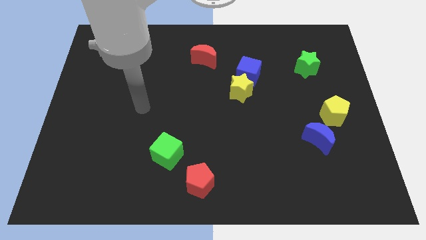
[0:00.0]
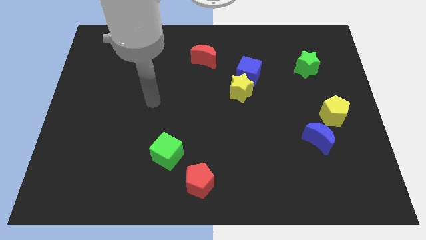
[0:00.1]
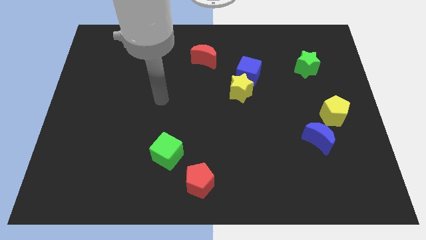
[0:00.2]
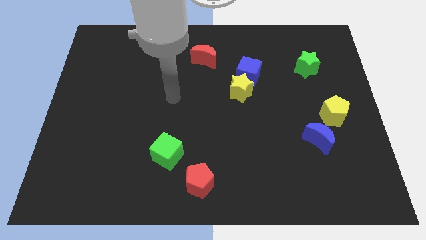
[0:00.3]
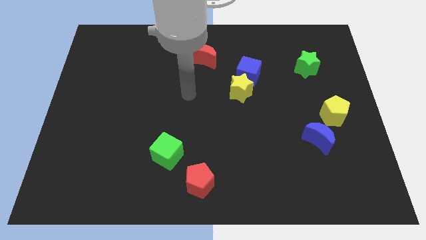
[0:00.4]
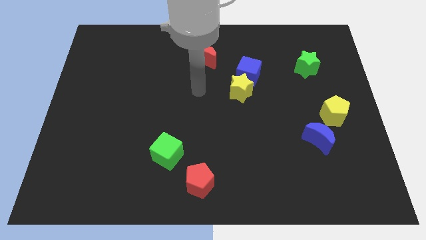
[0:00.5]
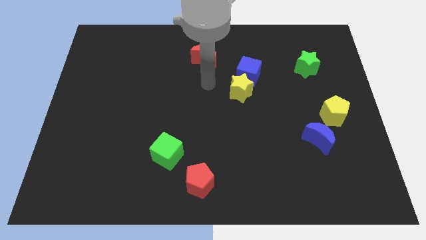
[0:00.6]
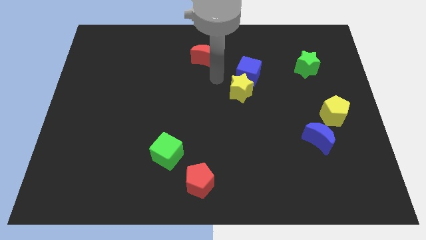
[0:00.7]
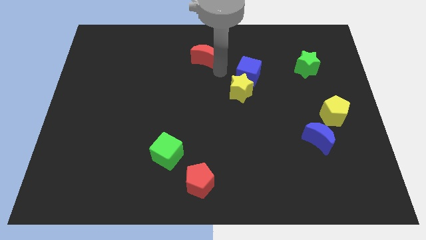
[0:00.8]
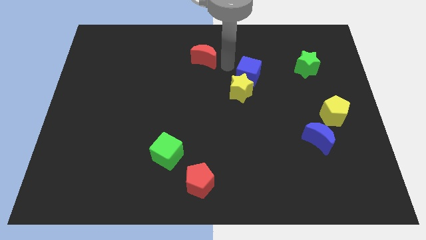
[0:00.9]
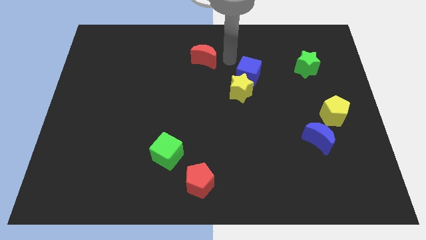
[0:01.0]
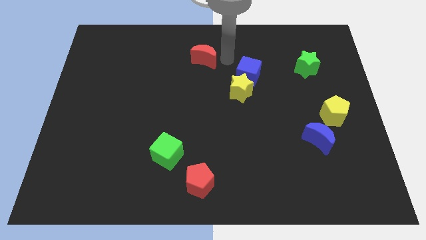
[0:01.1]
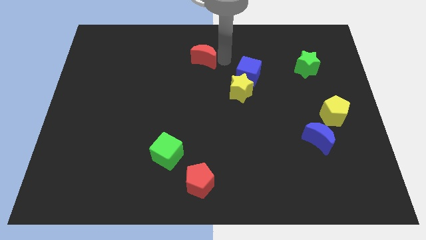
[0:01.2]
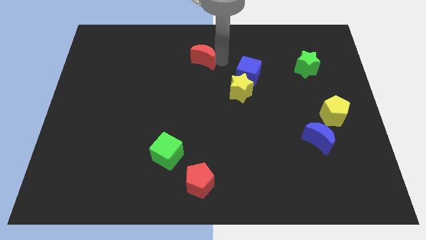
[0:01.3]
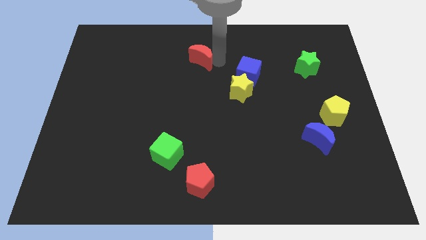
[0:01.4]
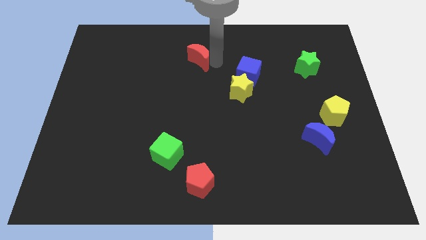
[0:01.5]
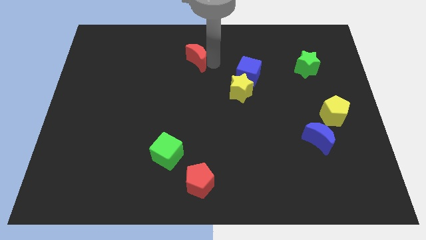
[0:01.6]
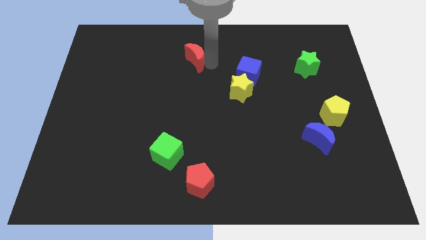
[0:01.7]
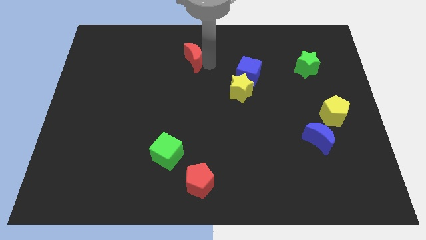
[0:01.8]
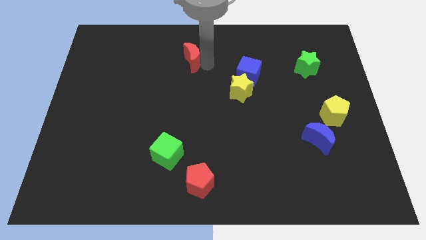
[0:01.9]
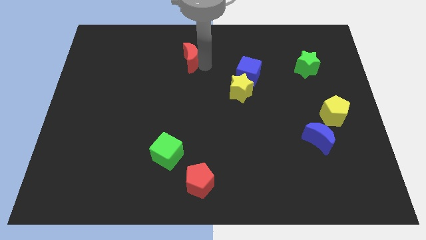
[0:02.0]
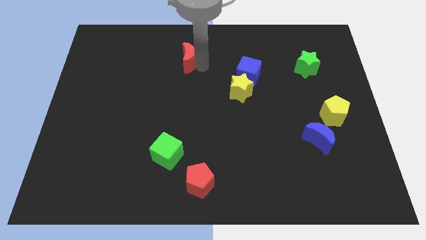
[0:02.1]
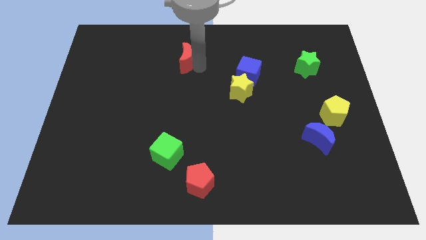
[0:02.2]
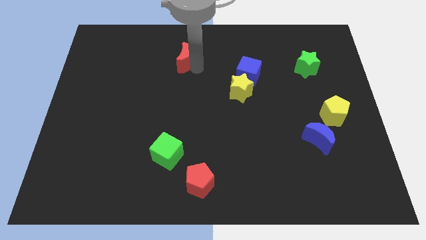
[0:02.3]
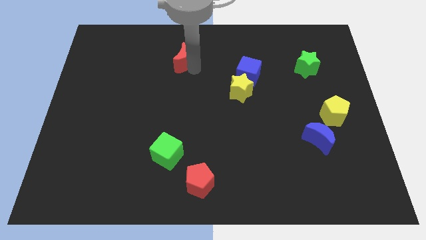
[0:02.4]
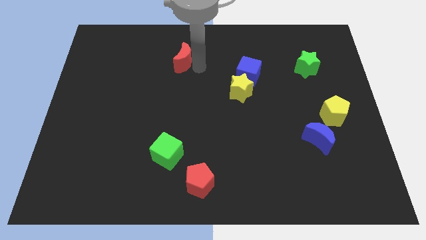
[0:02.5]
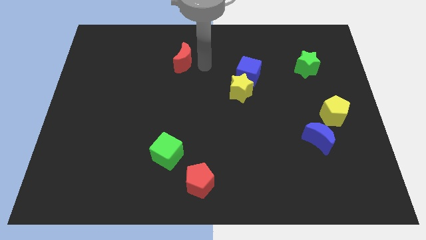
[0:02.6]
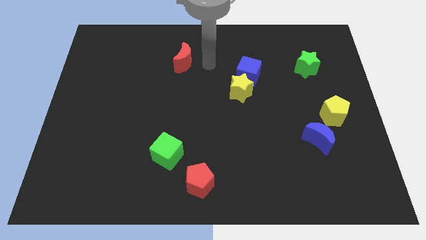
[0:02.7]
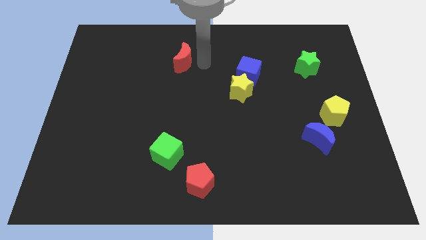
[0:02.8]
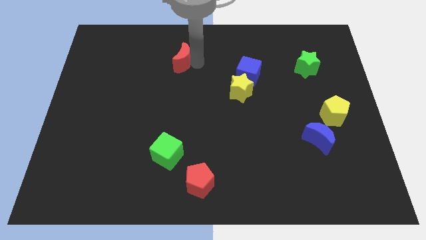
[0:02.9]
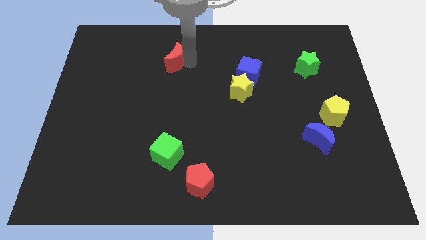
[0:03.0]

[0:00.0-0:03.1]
slightly slide the red moon left

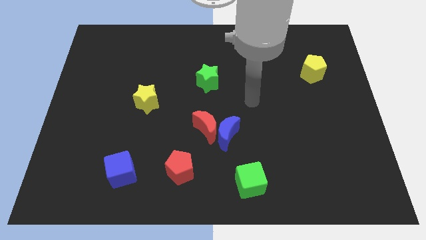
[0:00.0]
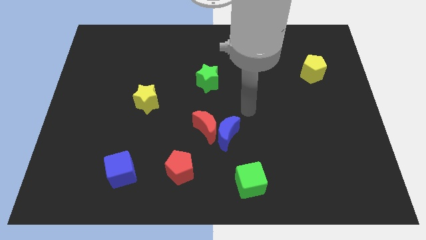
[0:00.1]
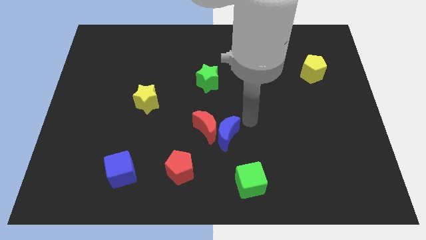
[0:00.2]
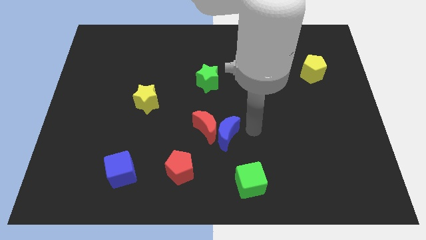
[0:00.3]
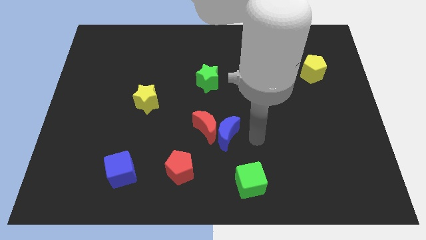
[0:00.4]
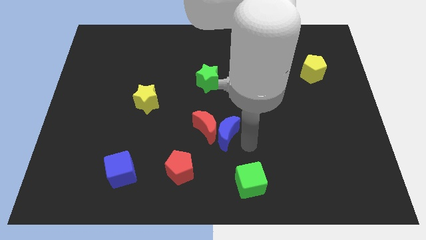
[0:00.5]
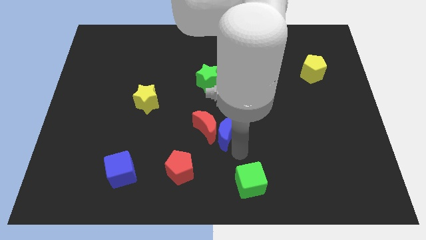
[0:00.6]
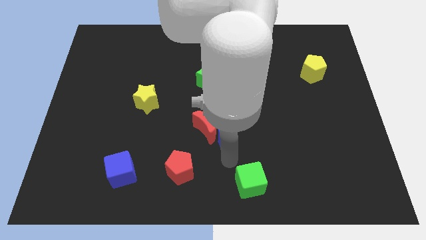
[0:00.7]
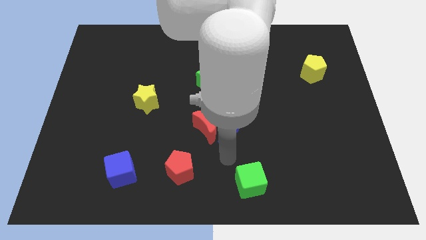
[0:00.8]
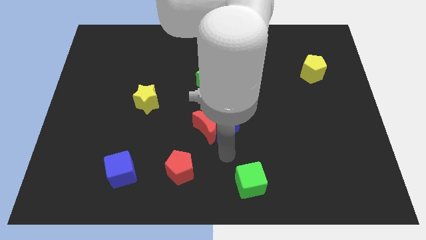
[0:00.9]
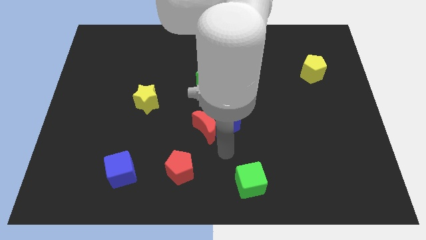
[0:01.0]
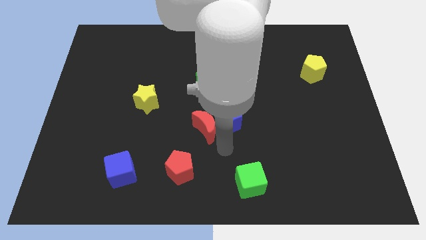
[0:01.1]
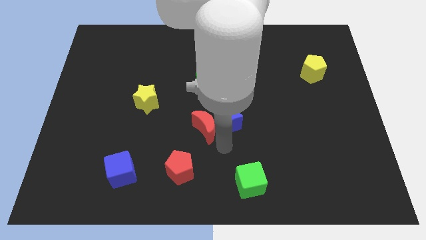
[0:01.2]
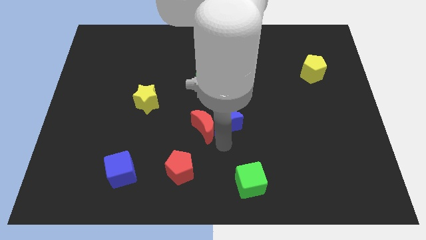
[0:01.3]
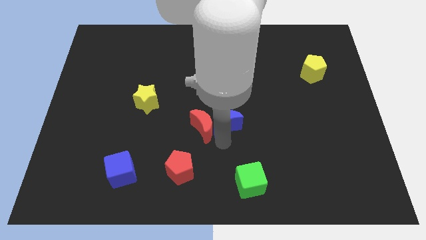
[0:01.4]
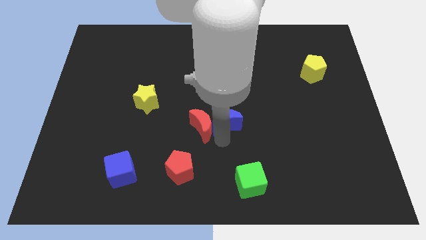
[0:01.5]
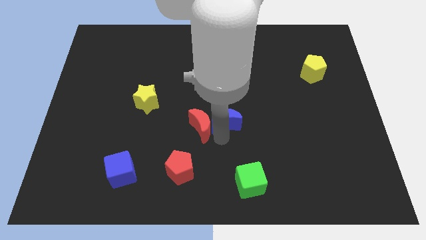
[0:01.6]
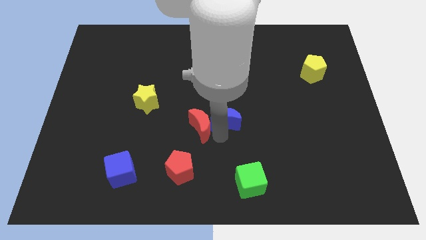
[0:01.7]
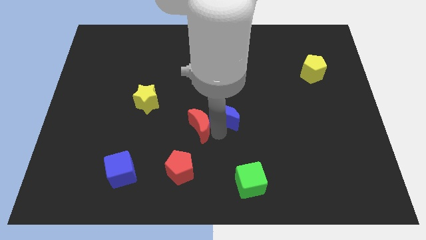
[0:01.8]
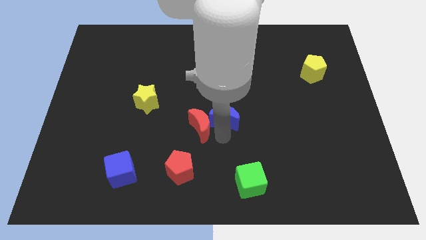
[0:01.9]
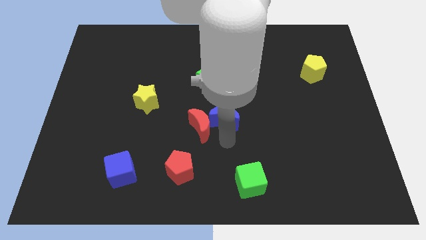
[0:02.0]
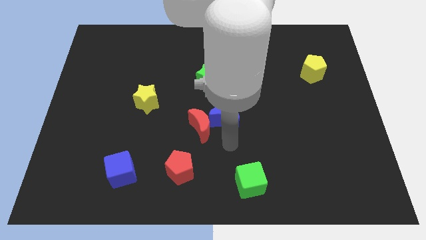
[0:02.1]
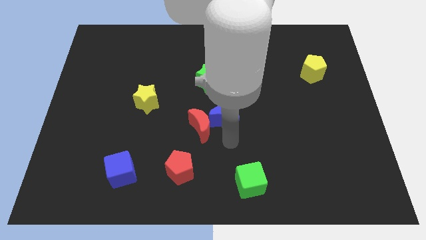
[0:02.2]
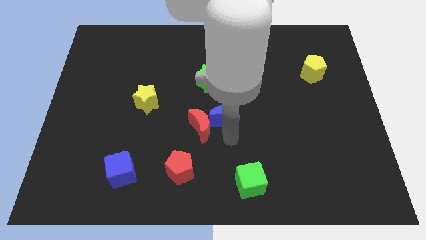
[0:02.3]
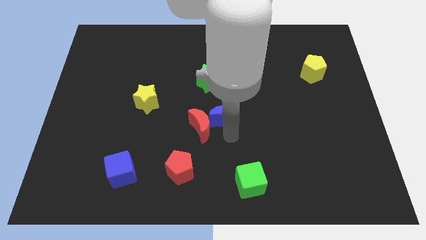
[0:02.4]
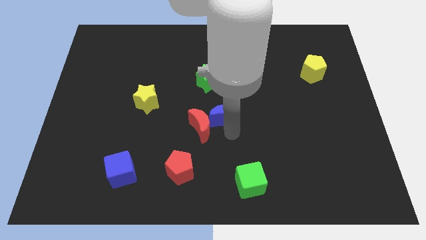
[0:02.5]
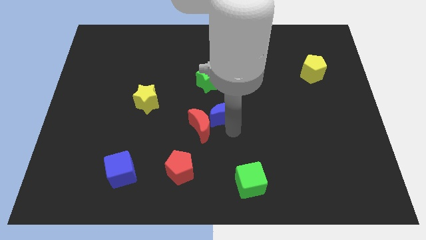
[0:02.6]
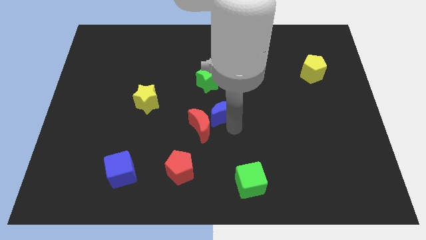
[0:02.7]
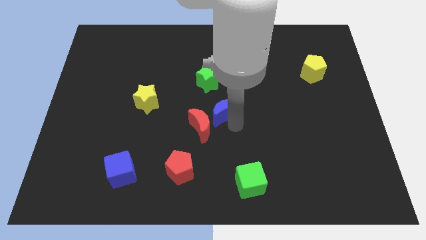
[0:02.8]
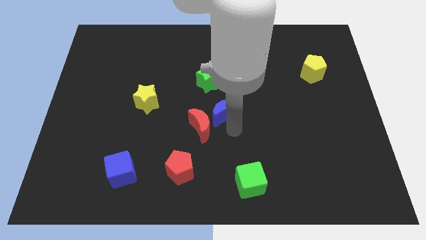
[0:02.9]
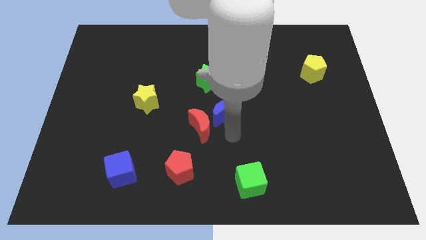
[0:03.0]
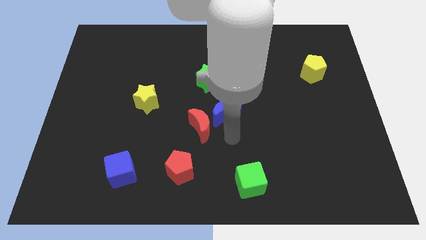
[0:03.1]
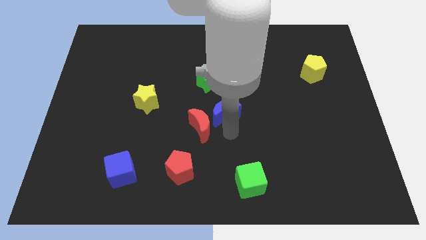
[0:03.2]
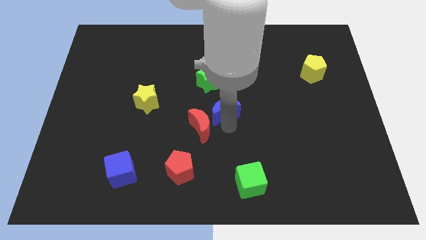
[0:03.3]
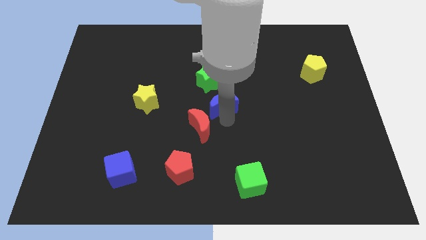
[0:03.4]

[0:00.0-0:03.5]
slightly push the blue moon up

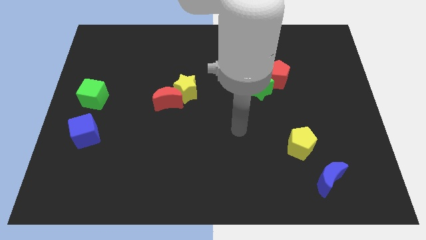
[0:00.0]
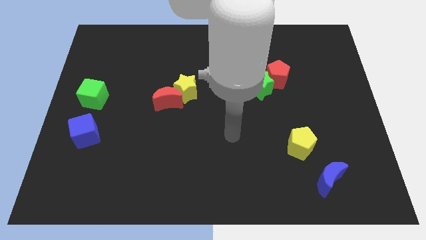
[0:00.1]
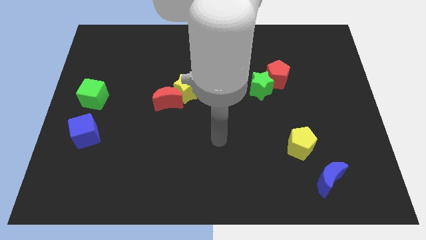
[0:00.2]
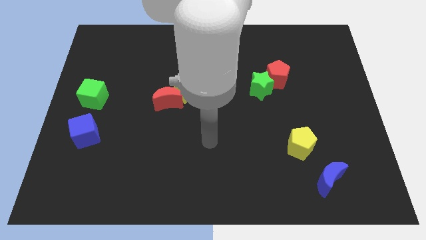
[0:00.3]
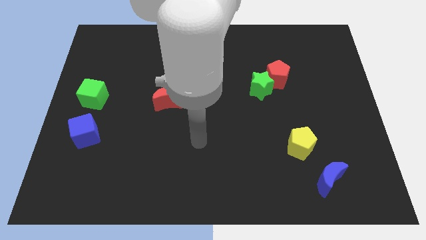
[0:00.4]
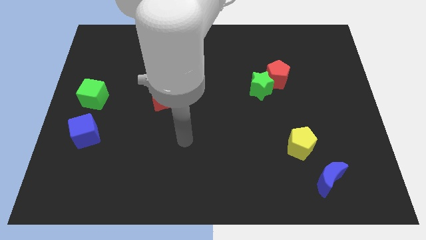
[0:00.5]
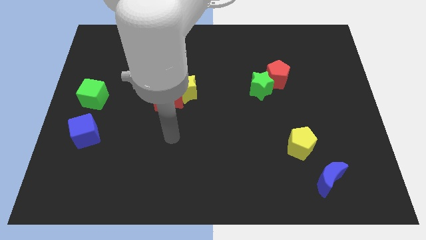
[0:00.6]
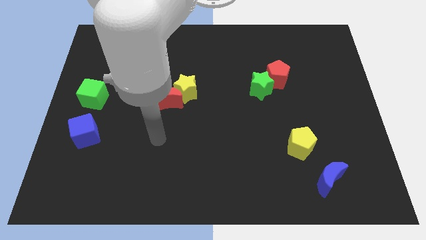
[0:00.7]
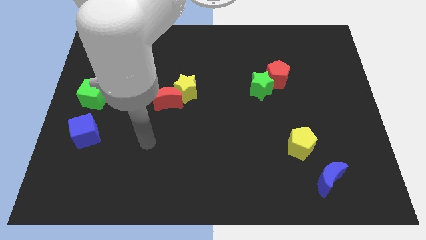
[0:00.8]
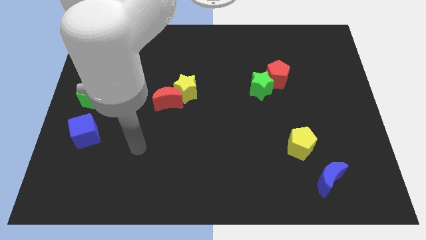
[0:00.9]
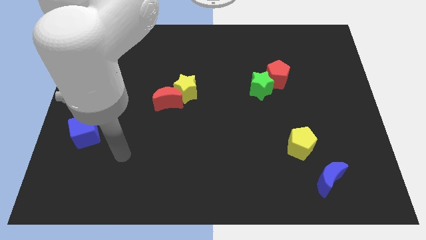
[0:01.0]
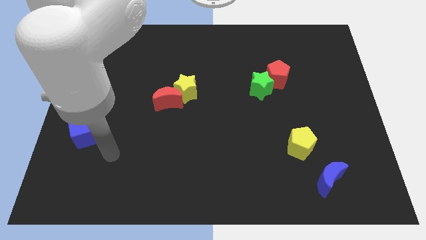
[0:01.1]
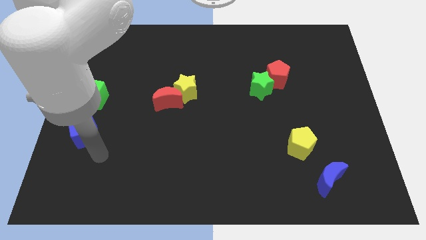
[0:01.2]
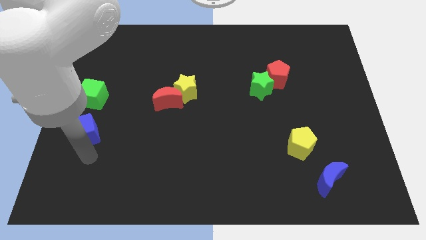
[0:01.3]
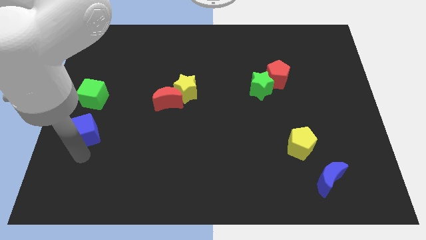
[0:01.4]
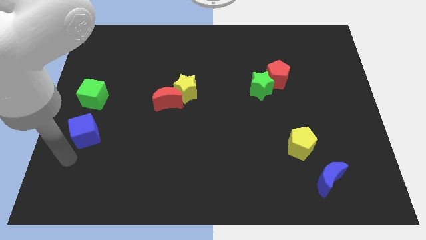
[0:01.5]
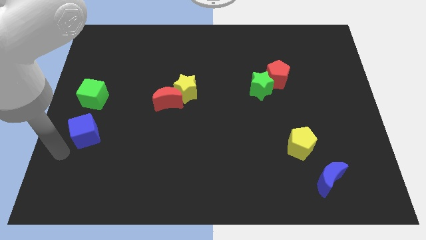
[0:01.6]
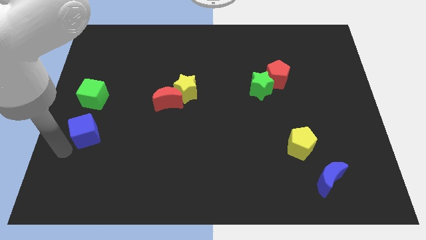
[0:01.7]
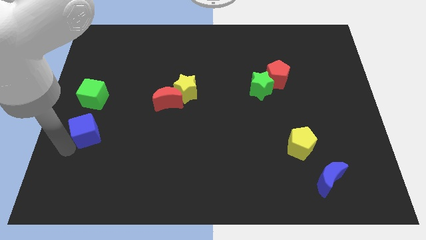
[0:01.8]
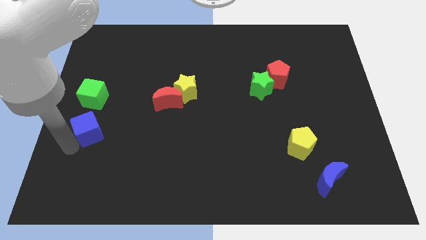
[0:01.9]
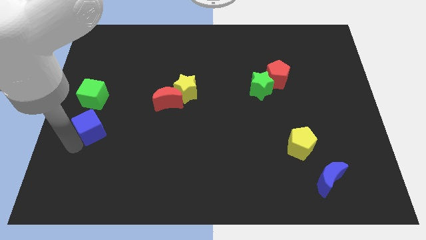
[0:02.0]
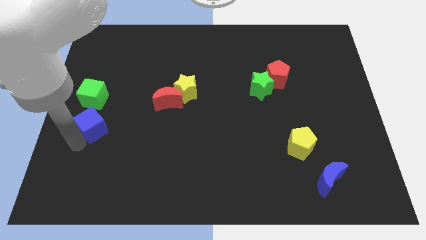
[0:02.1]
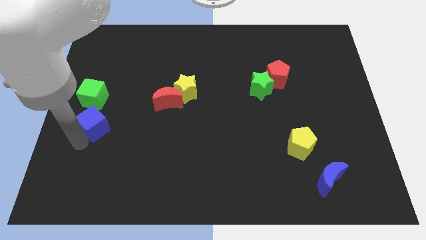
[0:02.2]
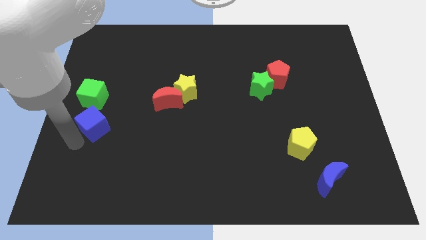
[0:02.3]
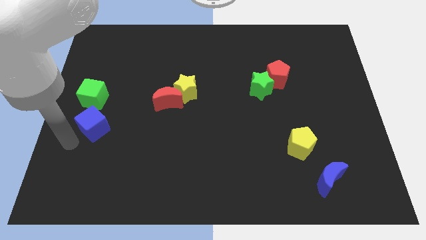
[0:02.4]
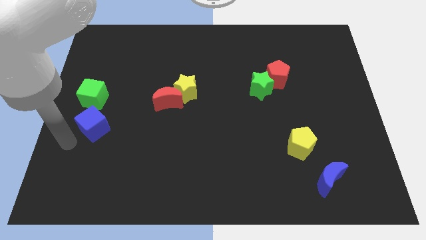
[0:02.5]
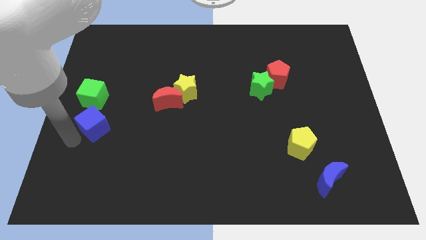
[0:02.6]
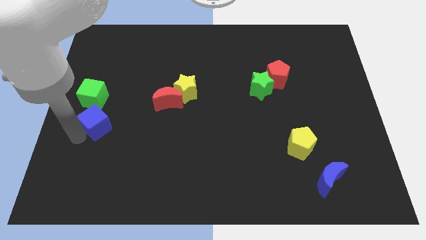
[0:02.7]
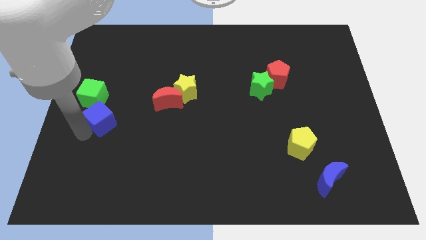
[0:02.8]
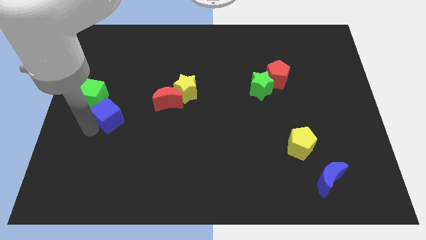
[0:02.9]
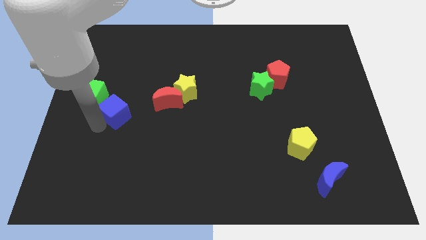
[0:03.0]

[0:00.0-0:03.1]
move the blue cube up and to the right diagonally a bit
